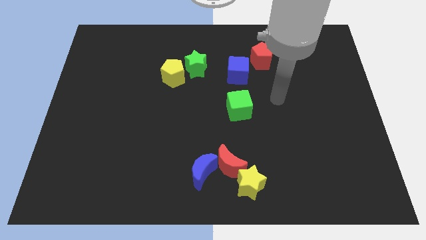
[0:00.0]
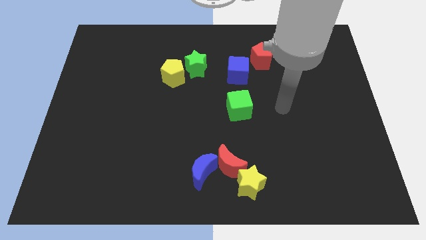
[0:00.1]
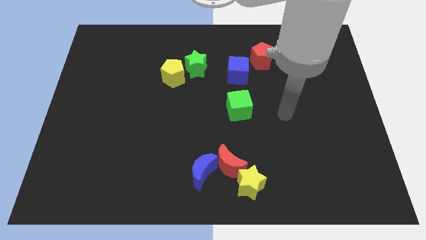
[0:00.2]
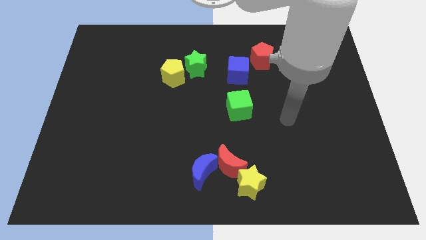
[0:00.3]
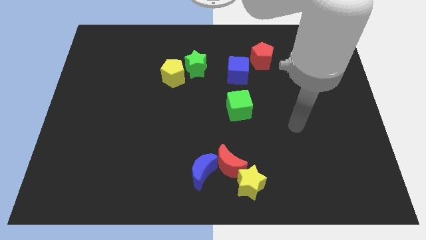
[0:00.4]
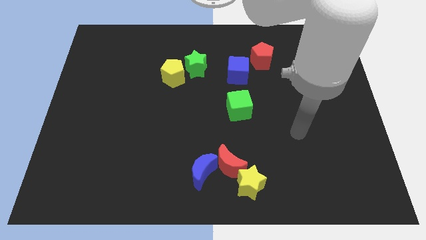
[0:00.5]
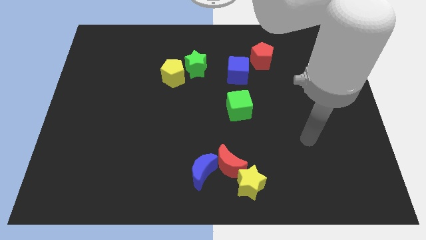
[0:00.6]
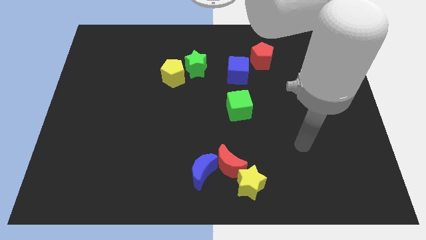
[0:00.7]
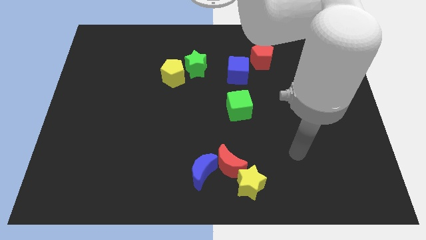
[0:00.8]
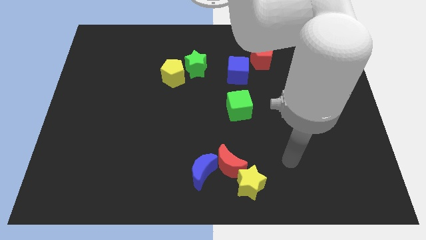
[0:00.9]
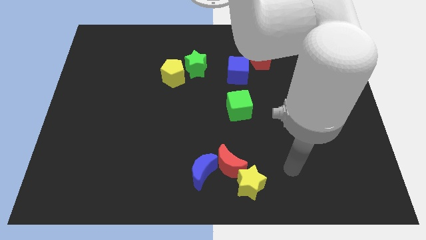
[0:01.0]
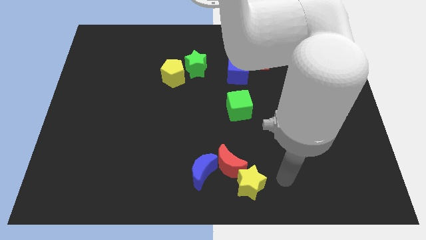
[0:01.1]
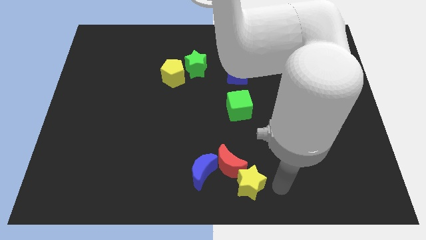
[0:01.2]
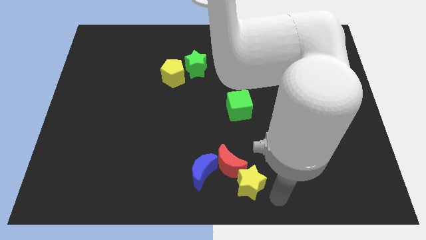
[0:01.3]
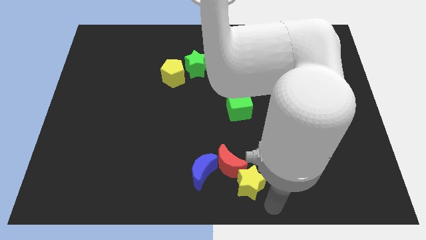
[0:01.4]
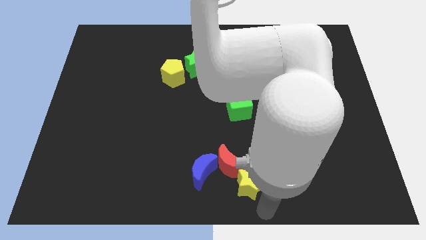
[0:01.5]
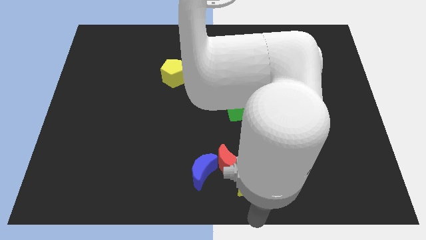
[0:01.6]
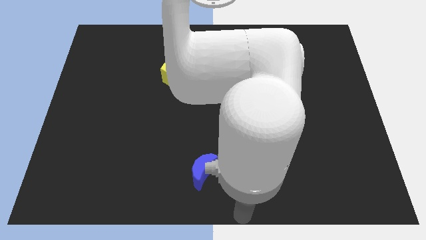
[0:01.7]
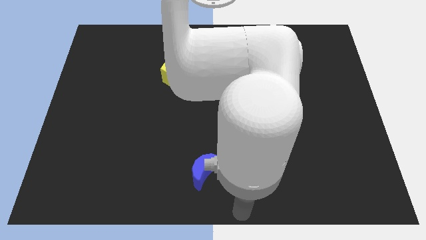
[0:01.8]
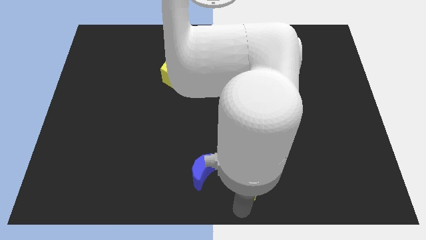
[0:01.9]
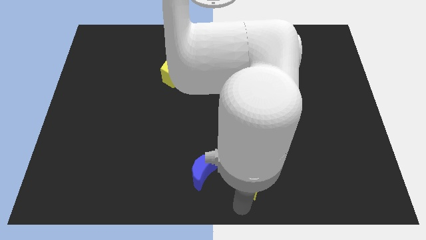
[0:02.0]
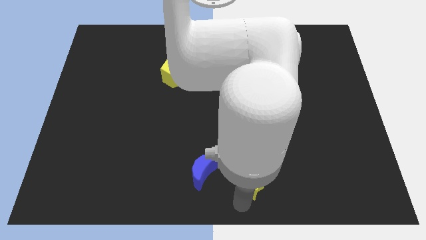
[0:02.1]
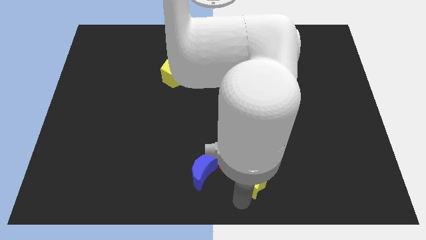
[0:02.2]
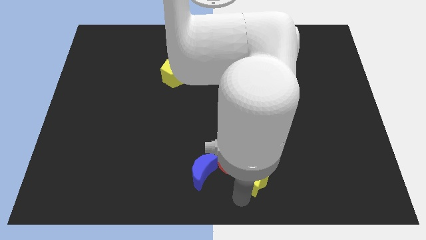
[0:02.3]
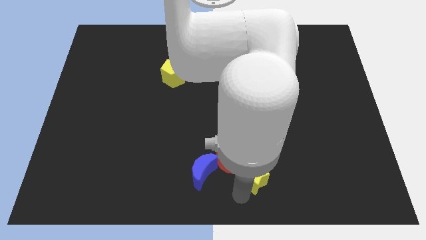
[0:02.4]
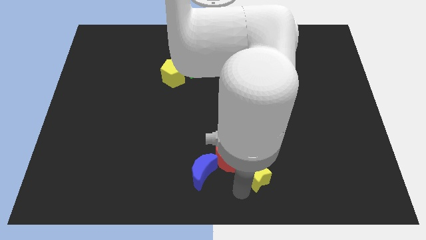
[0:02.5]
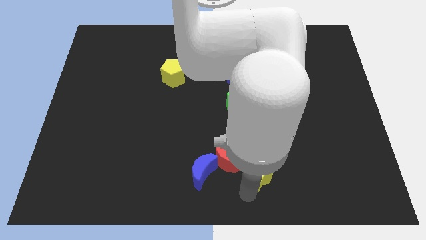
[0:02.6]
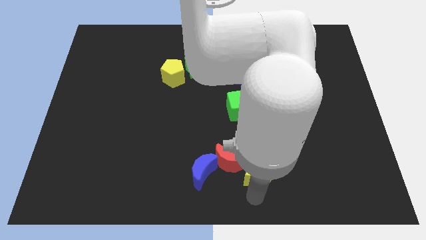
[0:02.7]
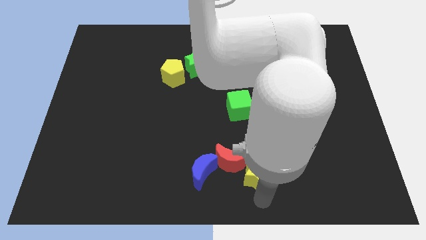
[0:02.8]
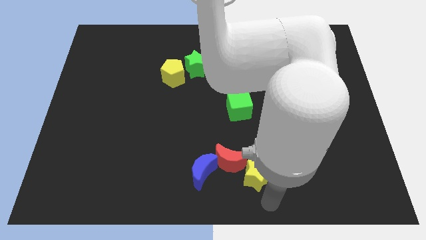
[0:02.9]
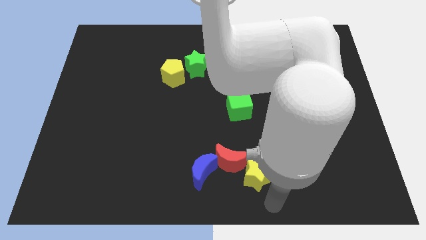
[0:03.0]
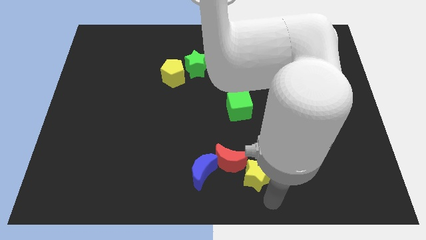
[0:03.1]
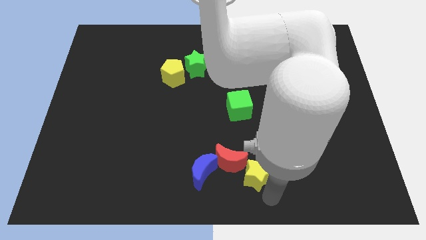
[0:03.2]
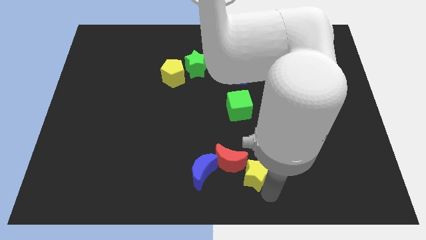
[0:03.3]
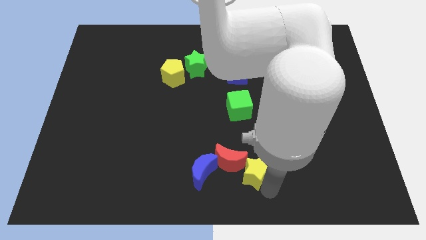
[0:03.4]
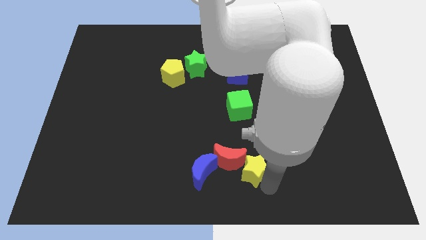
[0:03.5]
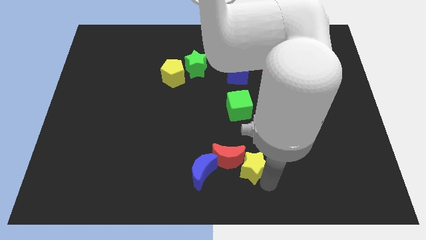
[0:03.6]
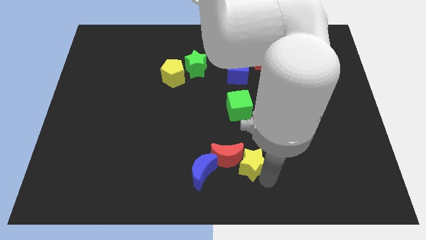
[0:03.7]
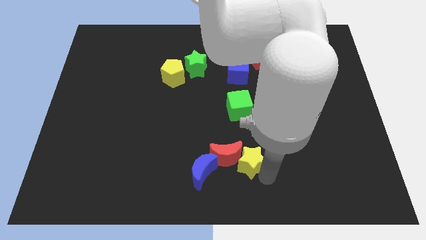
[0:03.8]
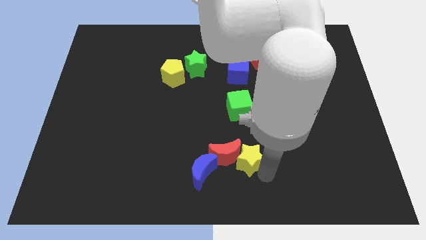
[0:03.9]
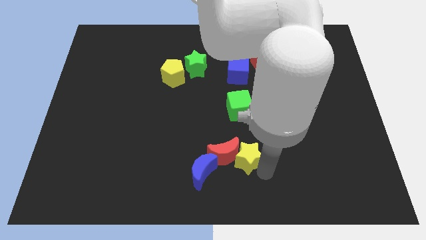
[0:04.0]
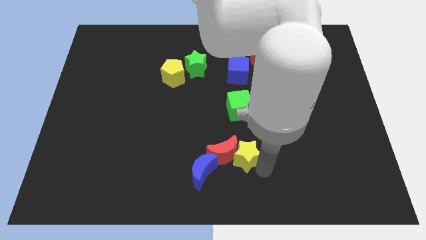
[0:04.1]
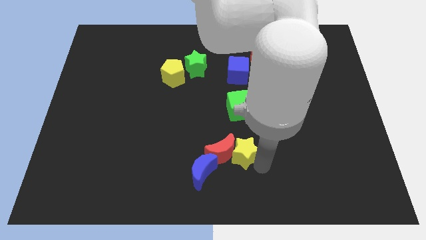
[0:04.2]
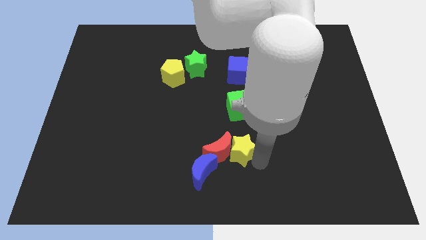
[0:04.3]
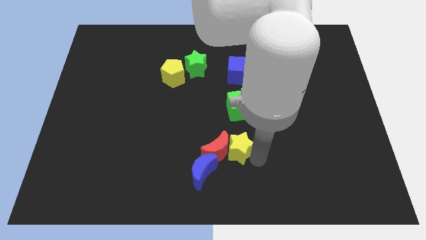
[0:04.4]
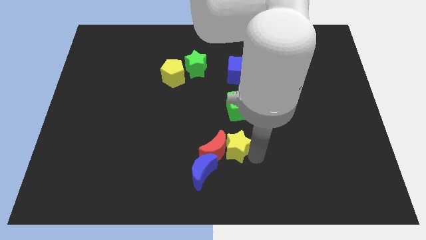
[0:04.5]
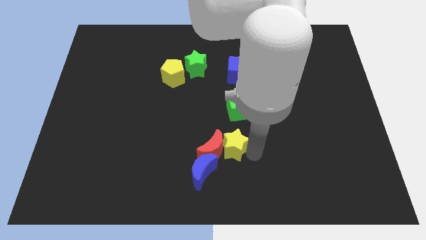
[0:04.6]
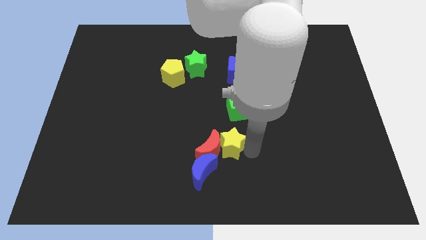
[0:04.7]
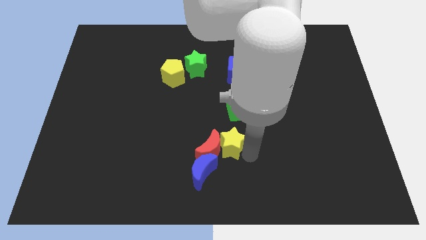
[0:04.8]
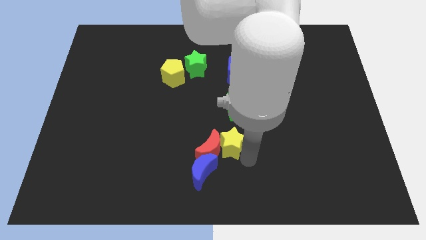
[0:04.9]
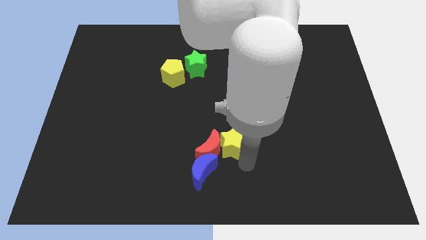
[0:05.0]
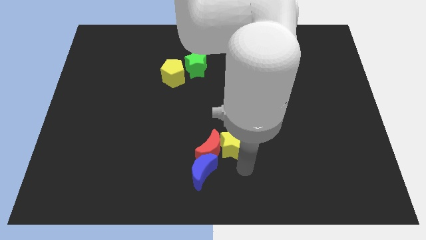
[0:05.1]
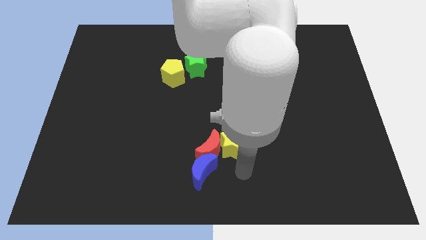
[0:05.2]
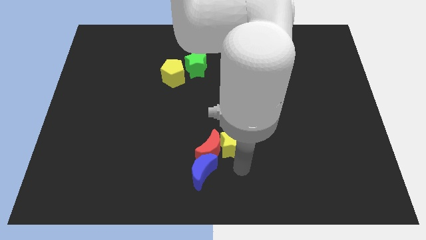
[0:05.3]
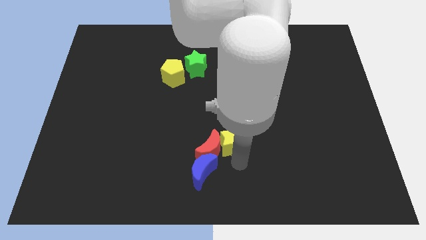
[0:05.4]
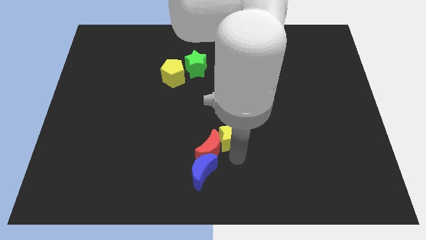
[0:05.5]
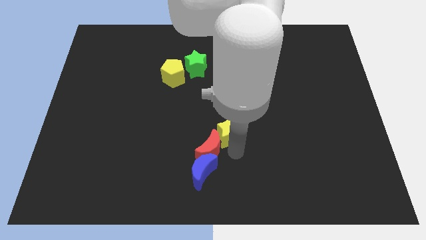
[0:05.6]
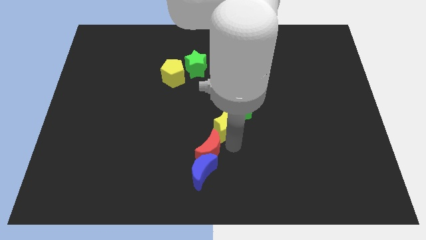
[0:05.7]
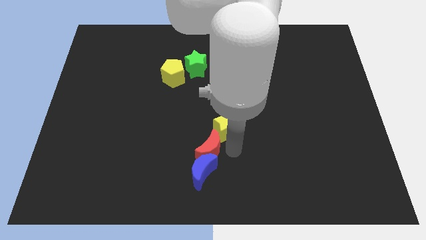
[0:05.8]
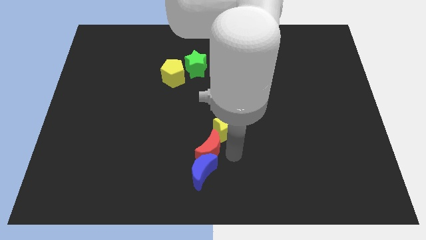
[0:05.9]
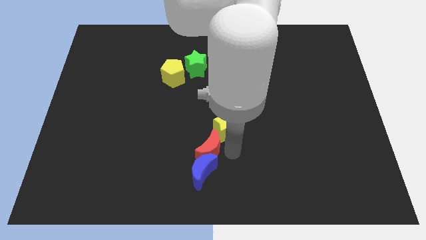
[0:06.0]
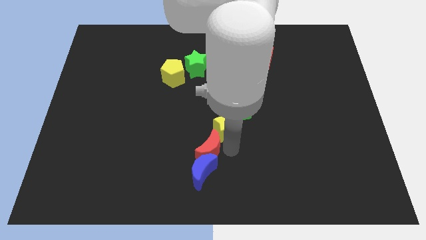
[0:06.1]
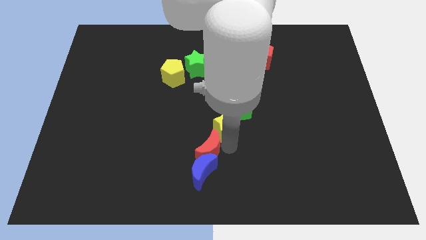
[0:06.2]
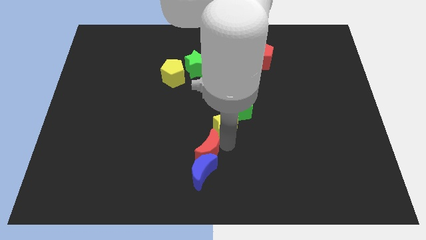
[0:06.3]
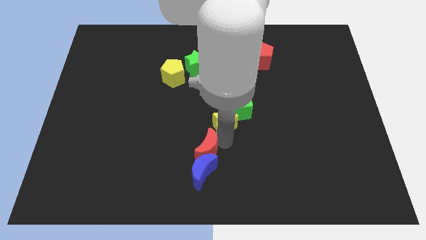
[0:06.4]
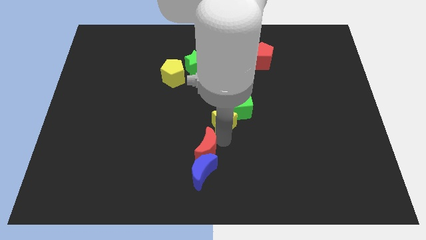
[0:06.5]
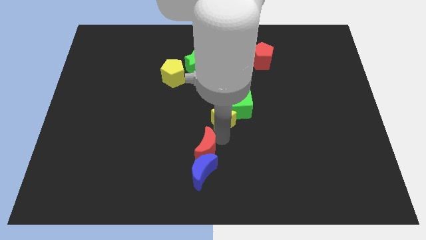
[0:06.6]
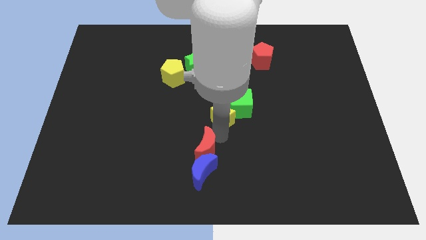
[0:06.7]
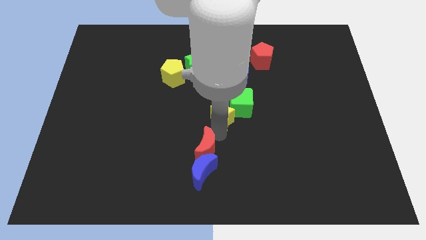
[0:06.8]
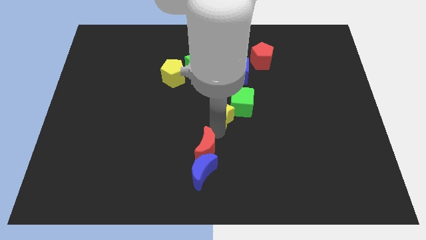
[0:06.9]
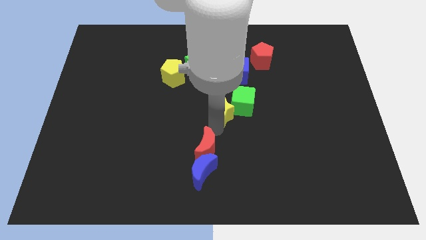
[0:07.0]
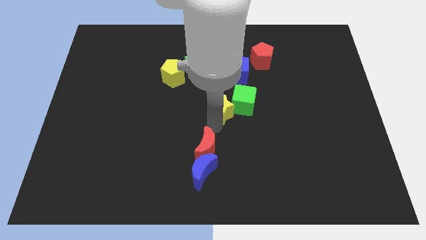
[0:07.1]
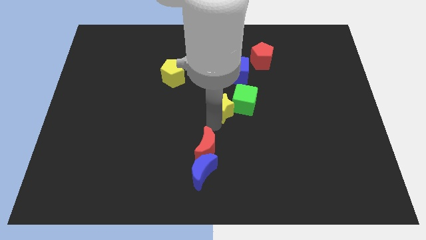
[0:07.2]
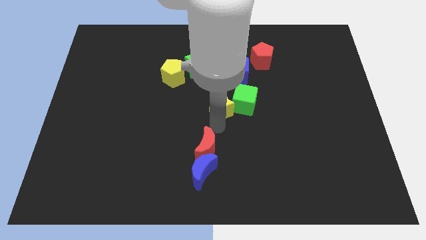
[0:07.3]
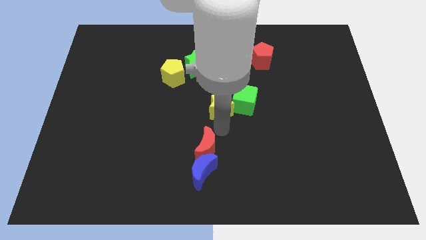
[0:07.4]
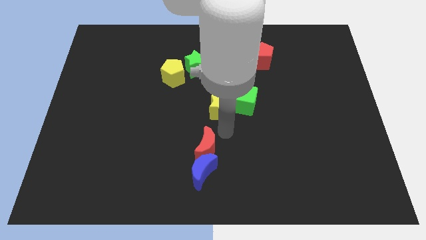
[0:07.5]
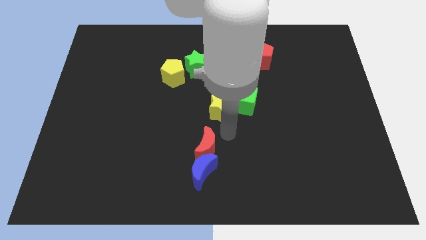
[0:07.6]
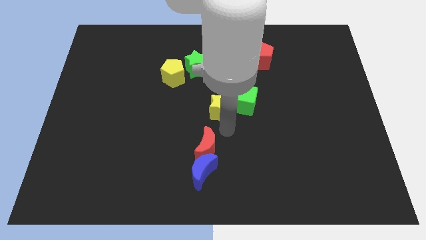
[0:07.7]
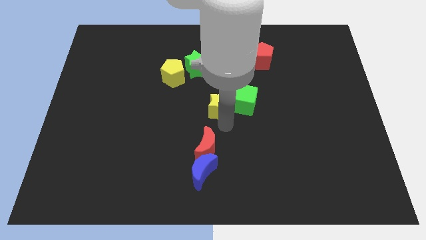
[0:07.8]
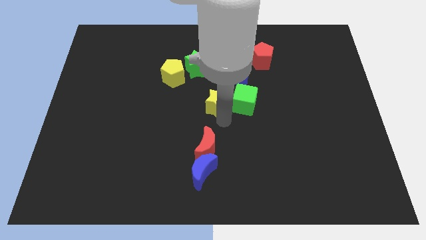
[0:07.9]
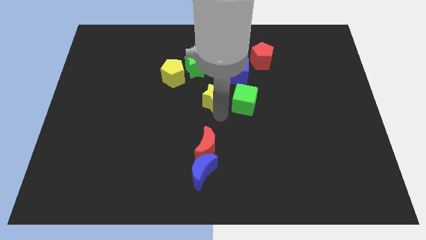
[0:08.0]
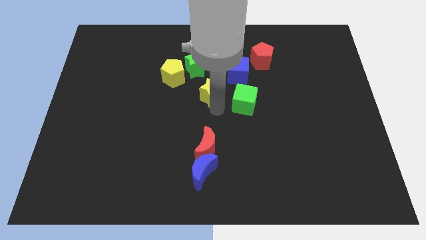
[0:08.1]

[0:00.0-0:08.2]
slide the yellow star to the bottom right side of the green star
